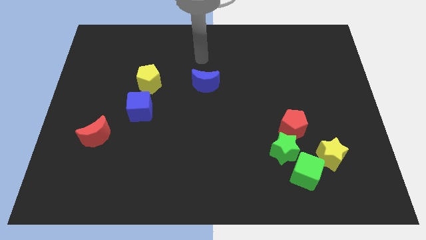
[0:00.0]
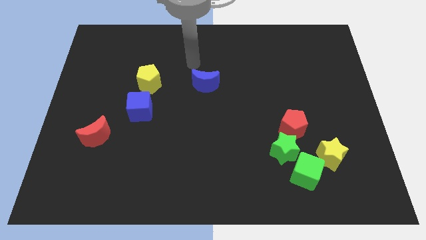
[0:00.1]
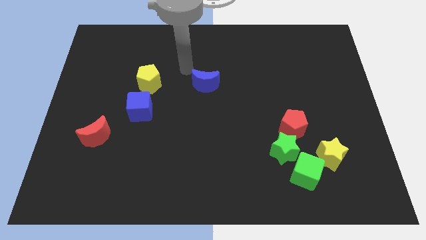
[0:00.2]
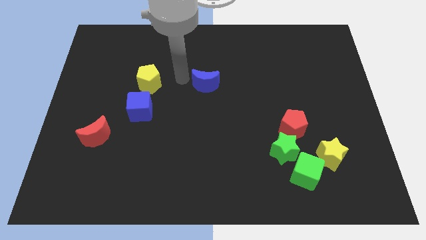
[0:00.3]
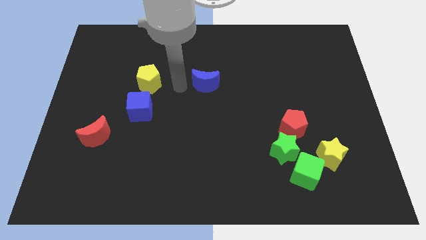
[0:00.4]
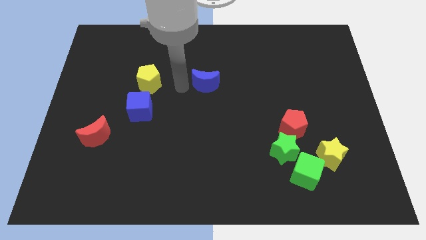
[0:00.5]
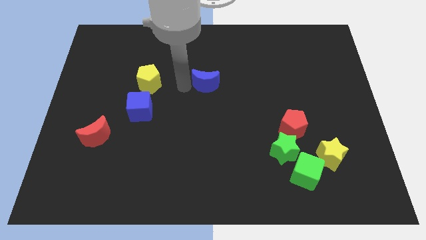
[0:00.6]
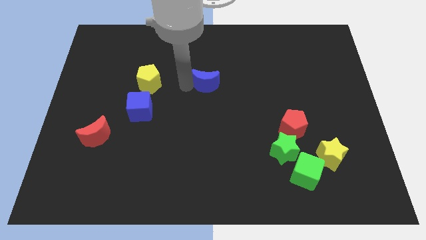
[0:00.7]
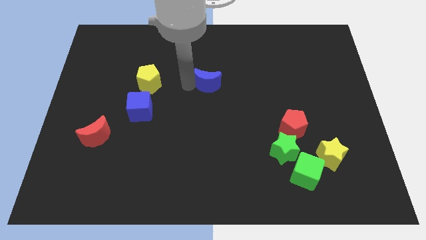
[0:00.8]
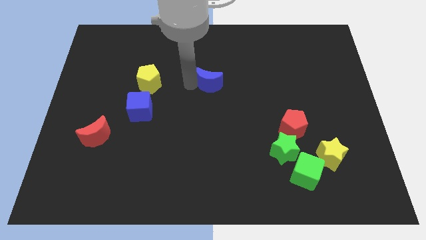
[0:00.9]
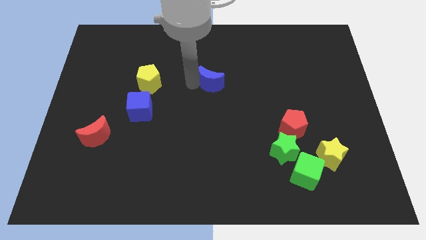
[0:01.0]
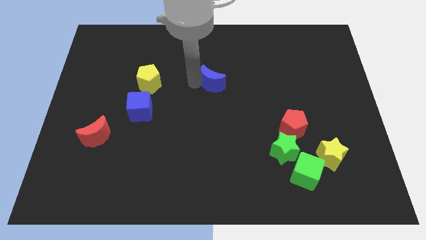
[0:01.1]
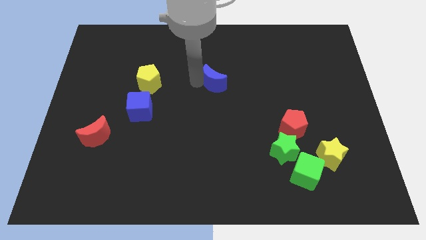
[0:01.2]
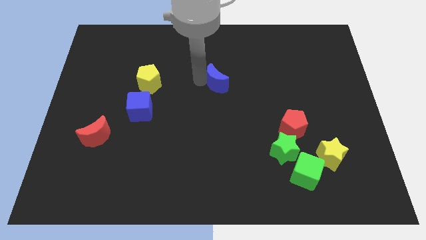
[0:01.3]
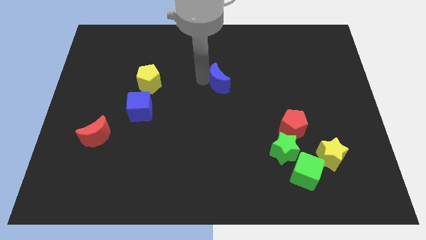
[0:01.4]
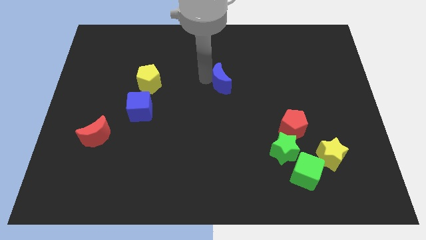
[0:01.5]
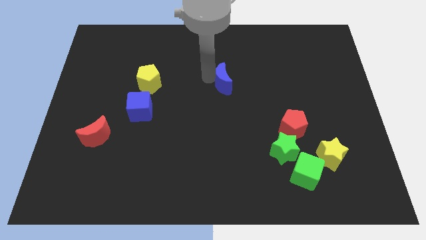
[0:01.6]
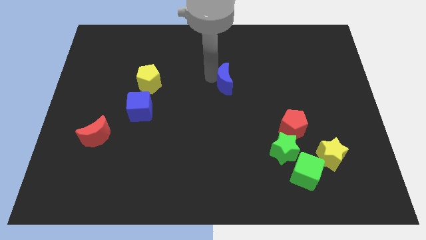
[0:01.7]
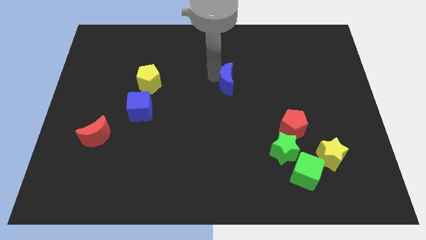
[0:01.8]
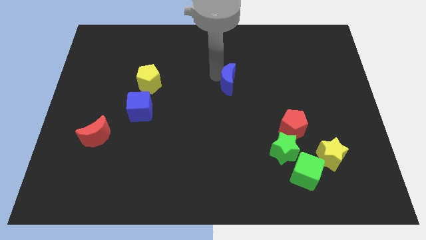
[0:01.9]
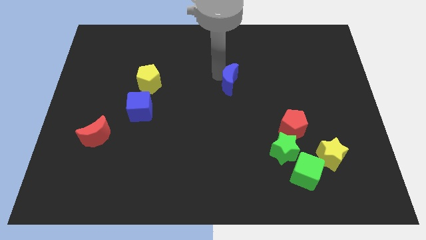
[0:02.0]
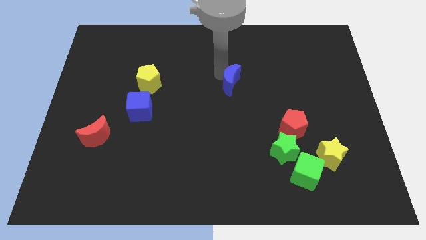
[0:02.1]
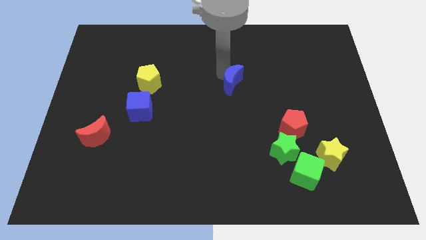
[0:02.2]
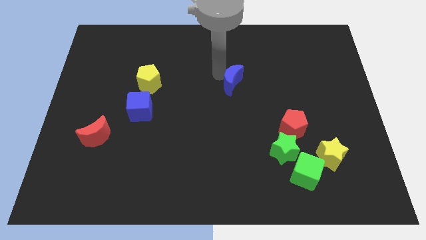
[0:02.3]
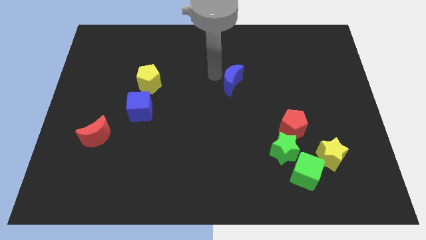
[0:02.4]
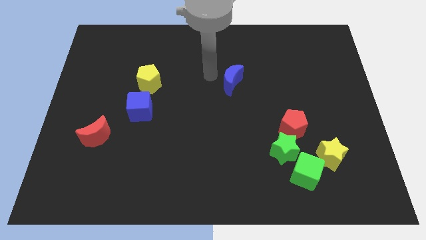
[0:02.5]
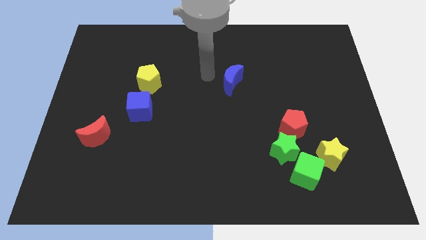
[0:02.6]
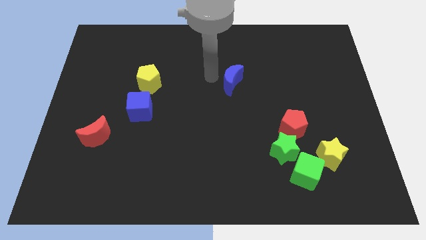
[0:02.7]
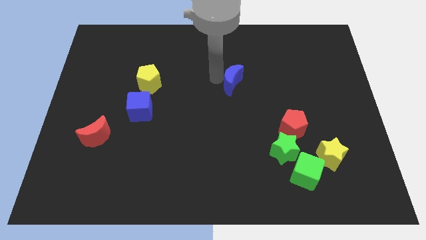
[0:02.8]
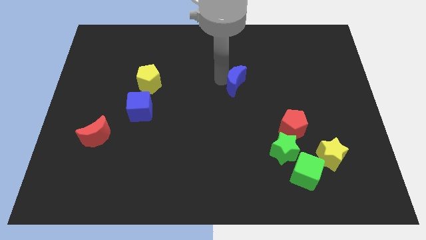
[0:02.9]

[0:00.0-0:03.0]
slide the blue moon a bit right

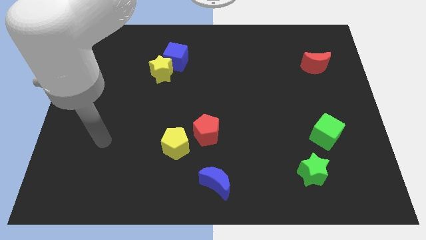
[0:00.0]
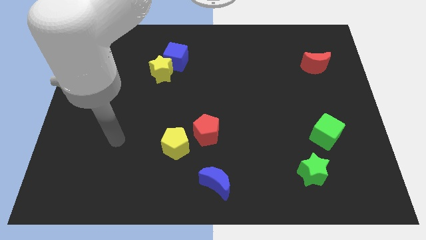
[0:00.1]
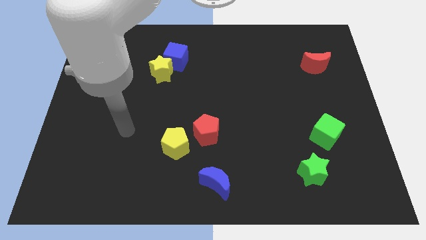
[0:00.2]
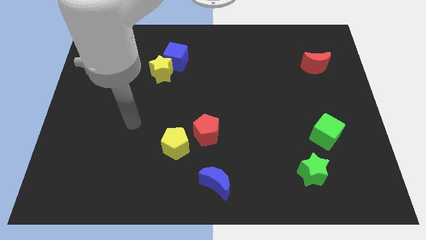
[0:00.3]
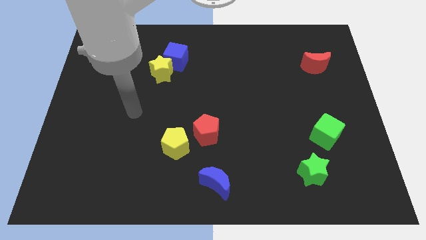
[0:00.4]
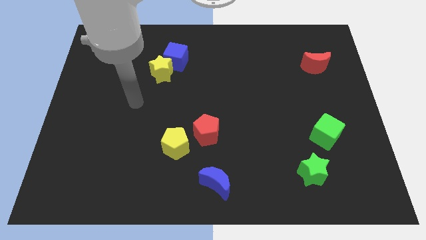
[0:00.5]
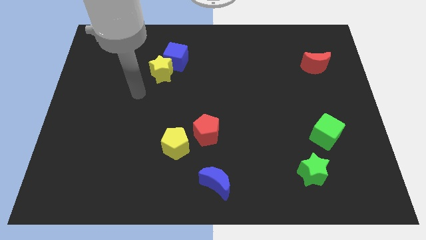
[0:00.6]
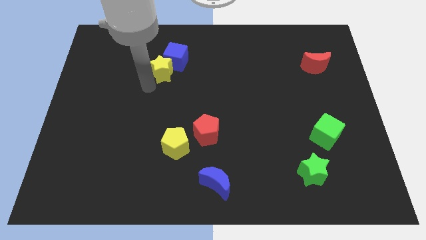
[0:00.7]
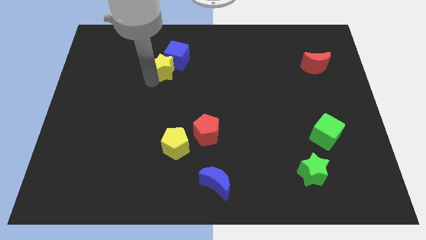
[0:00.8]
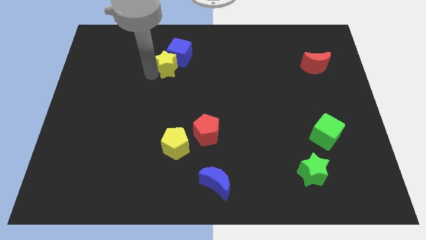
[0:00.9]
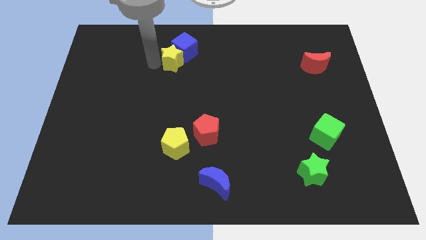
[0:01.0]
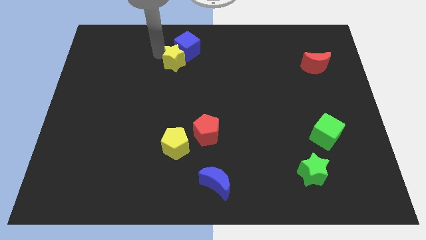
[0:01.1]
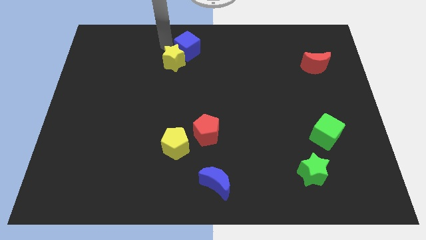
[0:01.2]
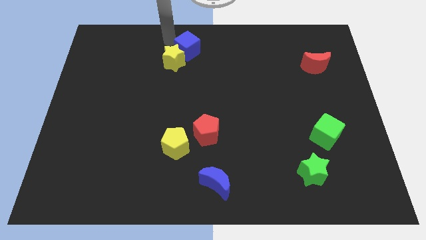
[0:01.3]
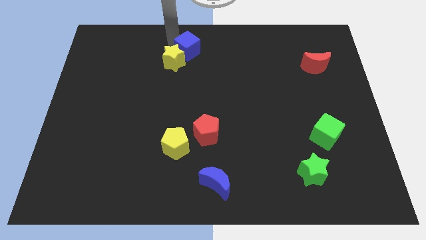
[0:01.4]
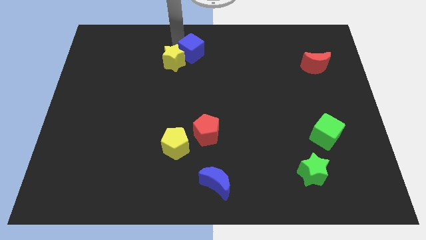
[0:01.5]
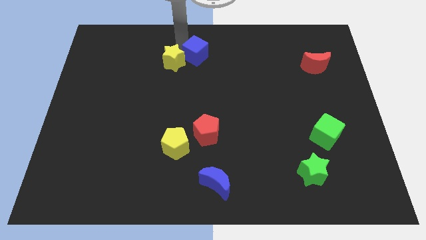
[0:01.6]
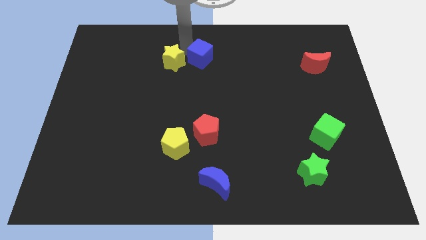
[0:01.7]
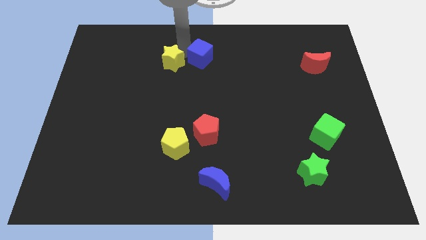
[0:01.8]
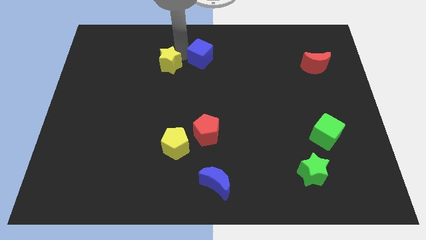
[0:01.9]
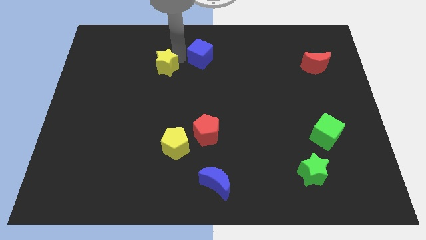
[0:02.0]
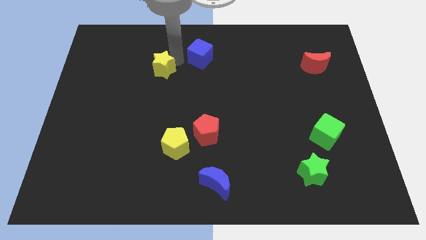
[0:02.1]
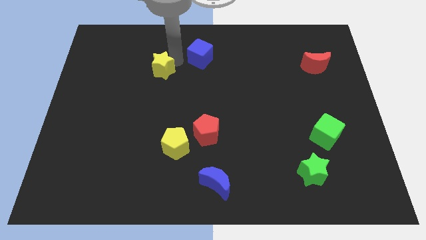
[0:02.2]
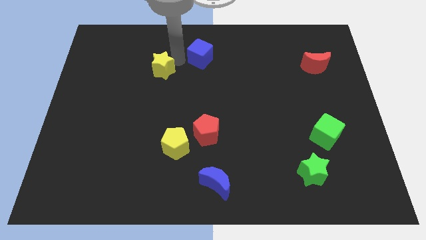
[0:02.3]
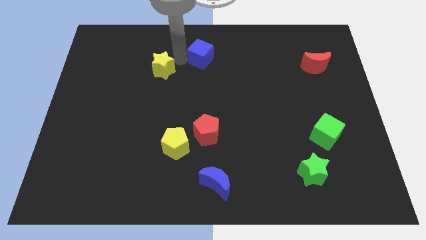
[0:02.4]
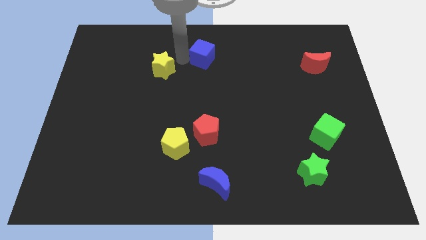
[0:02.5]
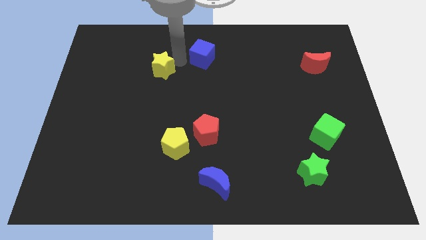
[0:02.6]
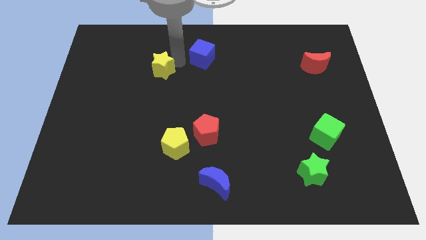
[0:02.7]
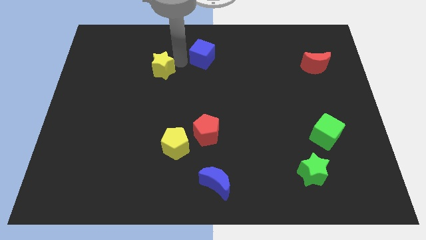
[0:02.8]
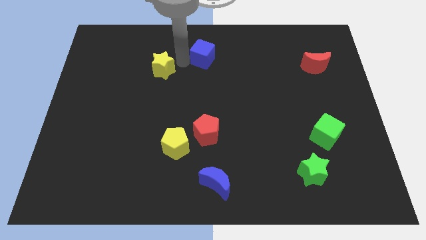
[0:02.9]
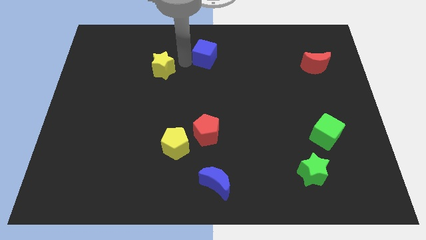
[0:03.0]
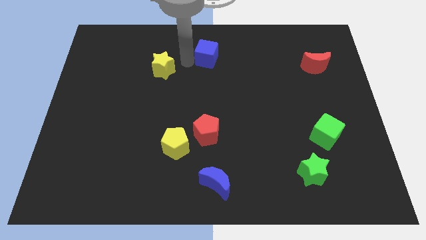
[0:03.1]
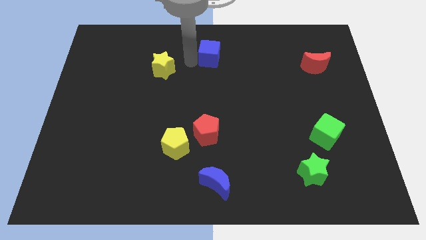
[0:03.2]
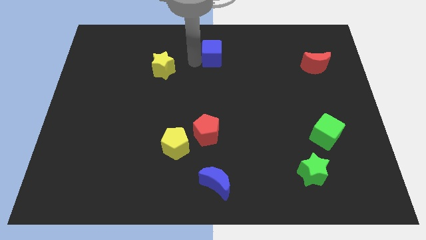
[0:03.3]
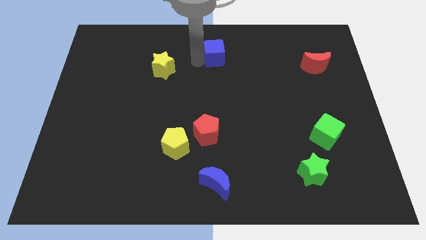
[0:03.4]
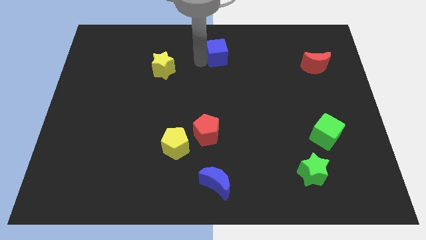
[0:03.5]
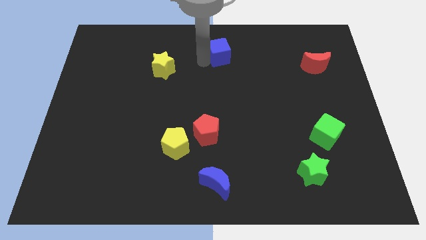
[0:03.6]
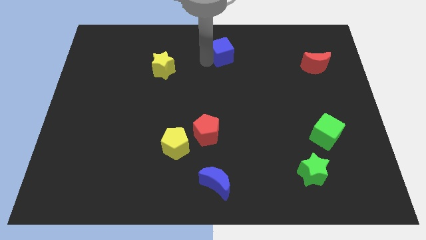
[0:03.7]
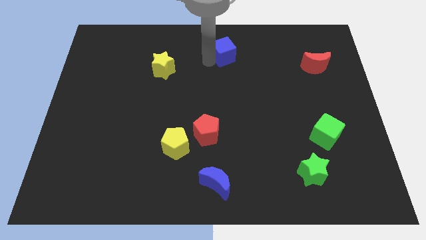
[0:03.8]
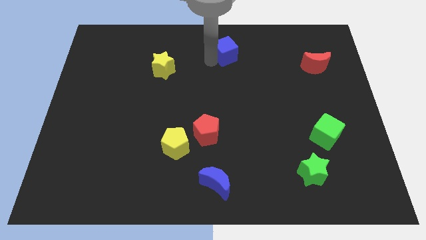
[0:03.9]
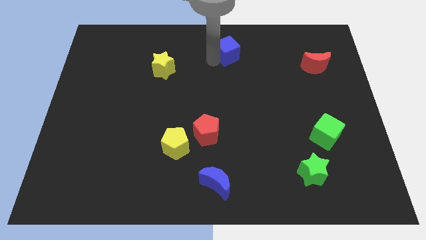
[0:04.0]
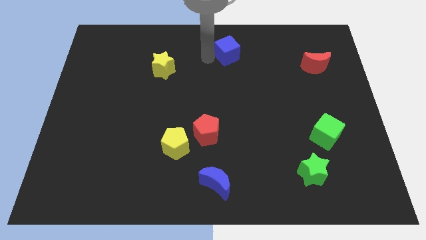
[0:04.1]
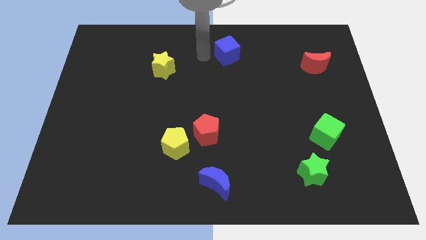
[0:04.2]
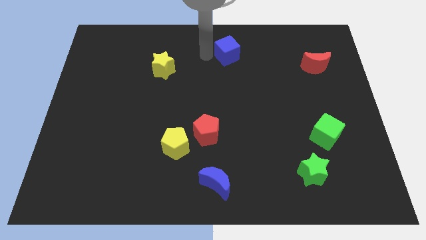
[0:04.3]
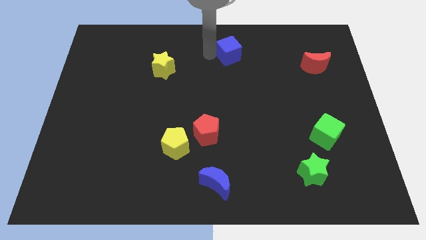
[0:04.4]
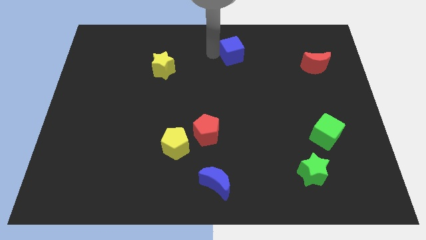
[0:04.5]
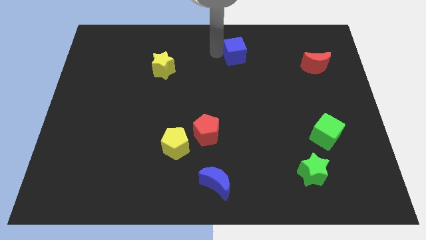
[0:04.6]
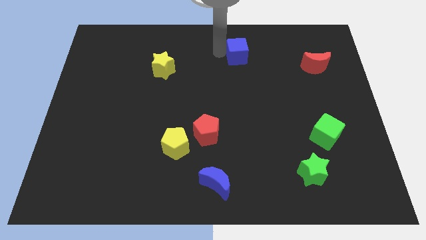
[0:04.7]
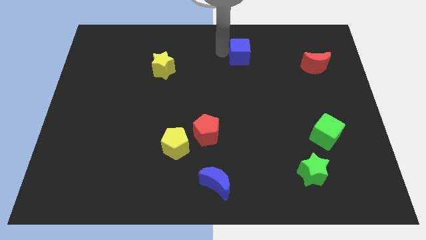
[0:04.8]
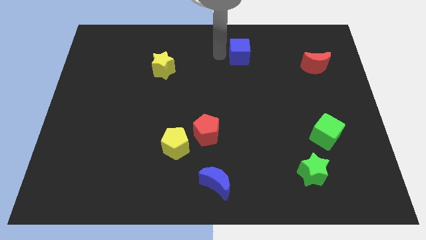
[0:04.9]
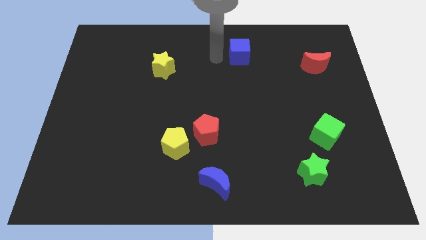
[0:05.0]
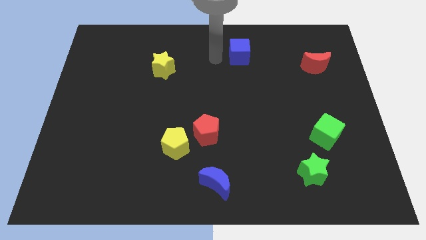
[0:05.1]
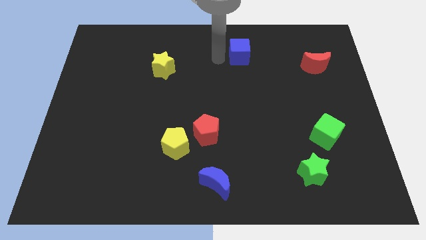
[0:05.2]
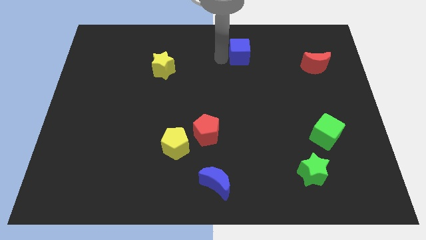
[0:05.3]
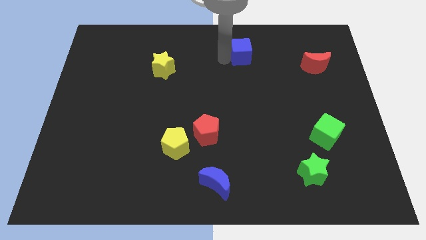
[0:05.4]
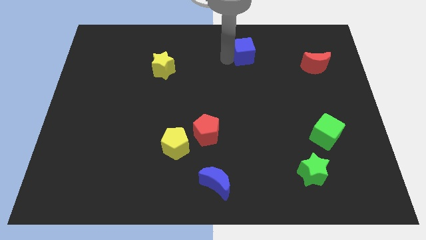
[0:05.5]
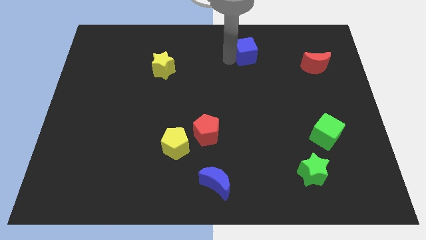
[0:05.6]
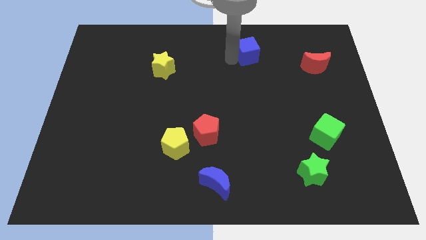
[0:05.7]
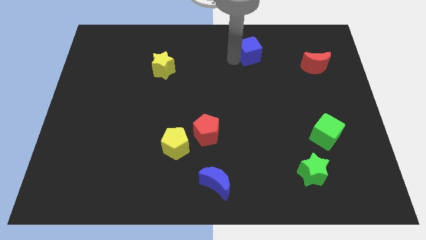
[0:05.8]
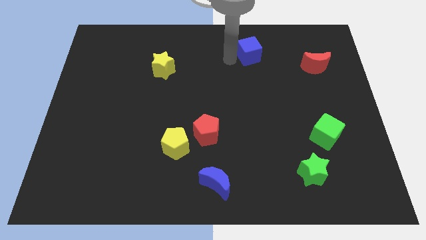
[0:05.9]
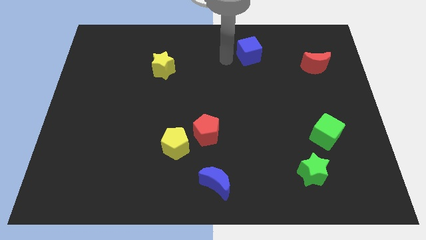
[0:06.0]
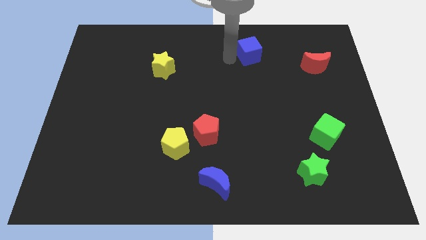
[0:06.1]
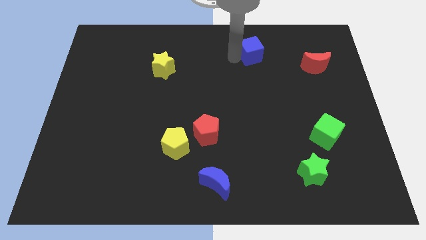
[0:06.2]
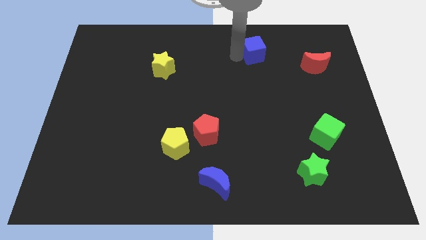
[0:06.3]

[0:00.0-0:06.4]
push the blue cube to the right
